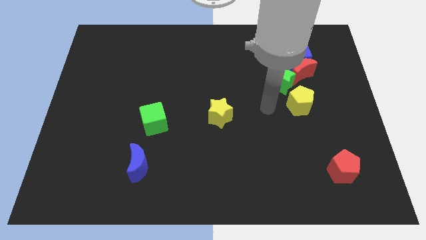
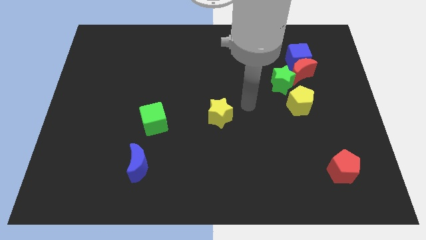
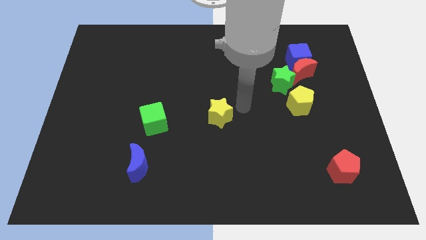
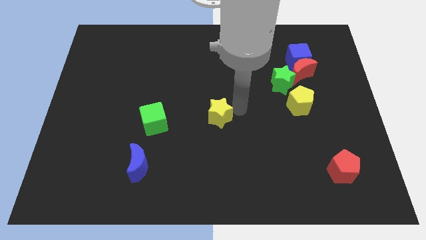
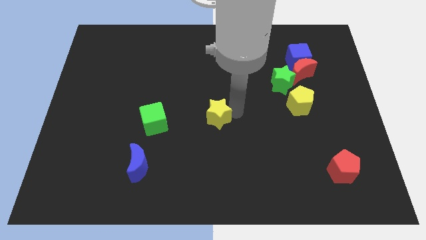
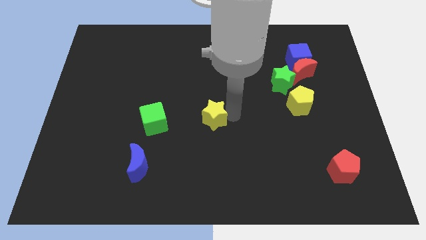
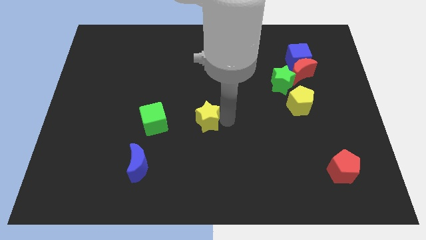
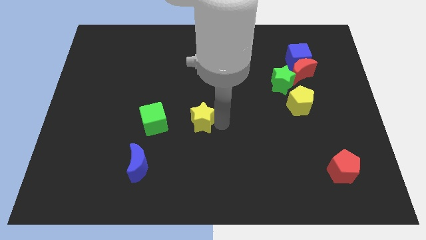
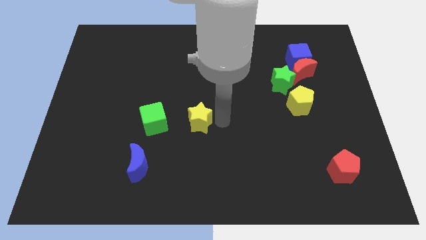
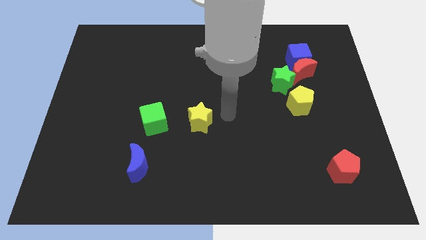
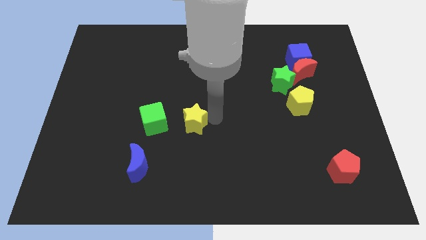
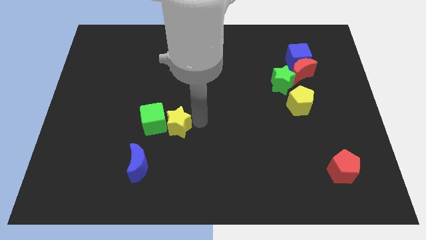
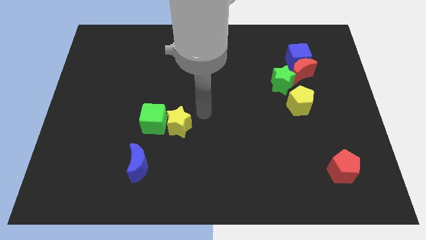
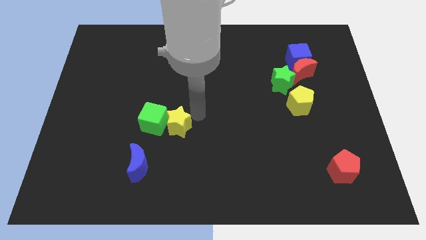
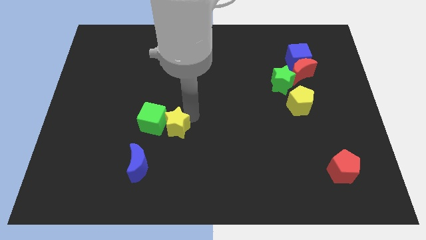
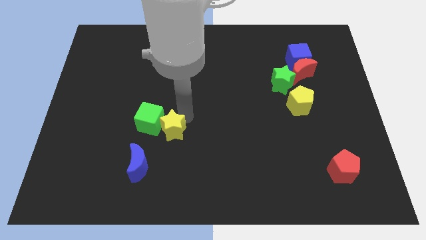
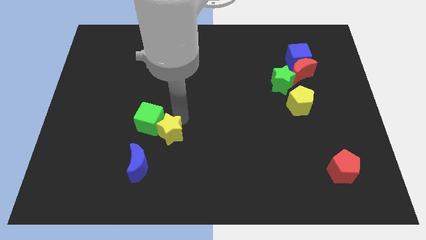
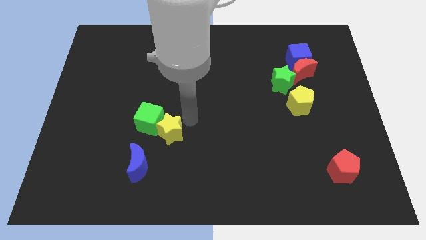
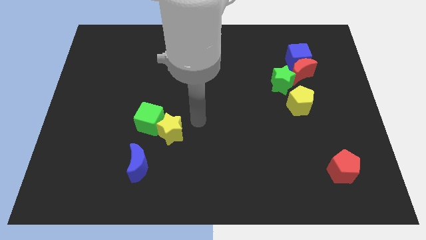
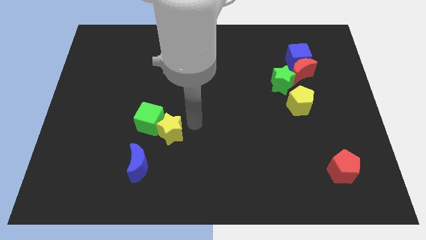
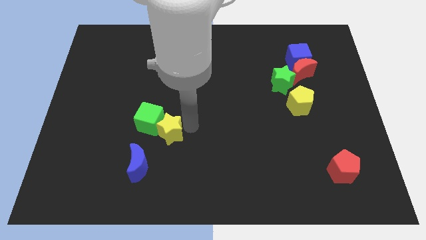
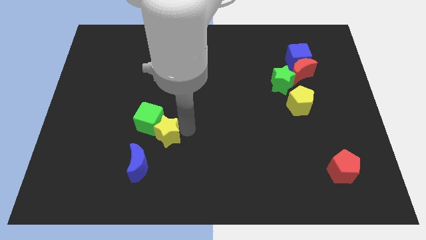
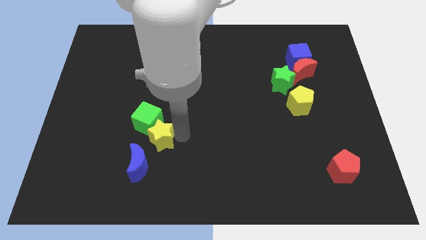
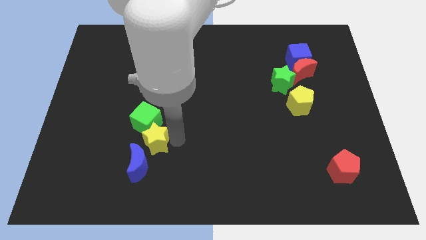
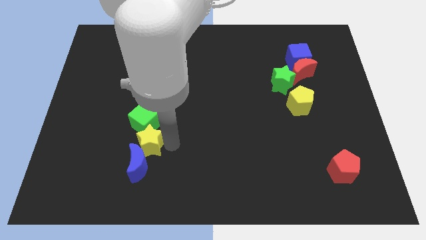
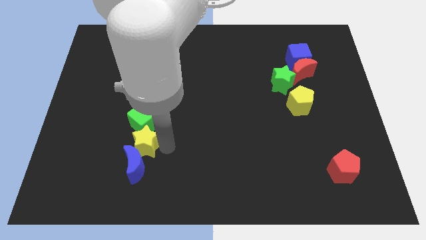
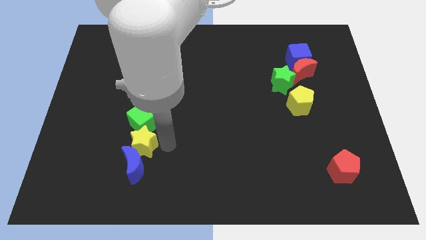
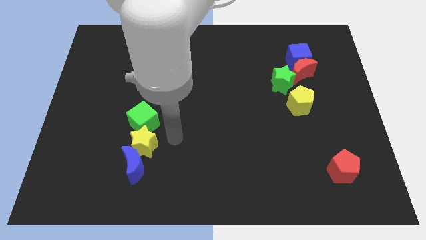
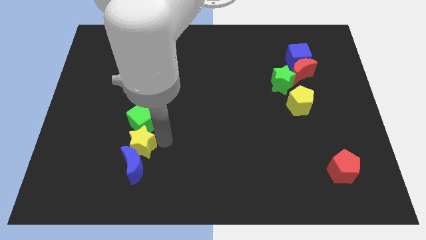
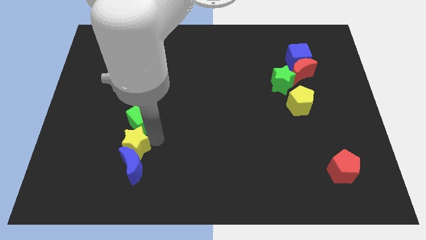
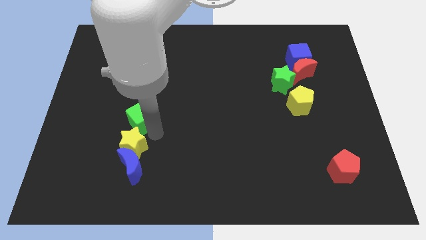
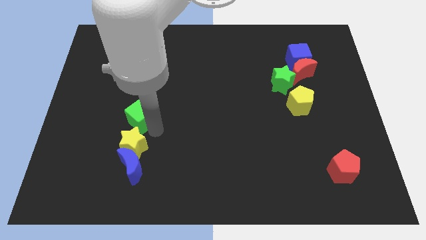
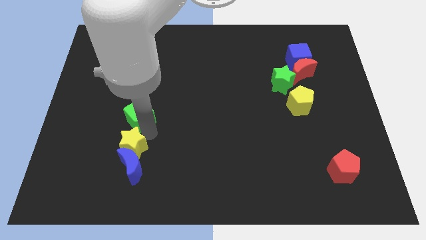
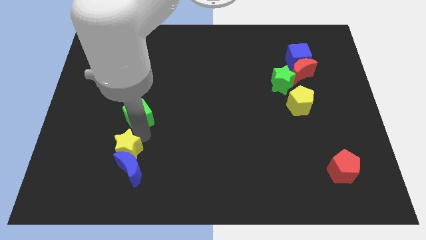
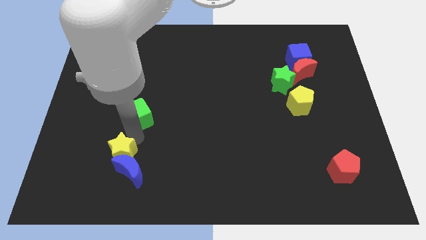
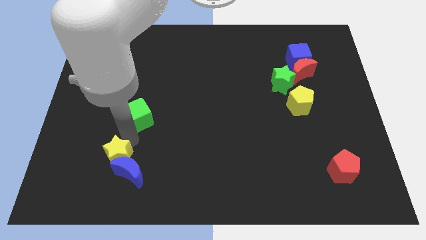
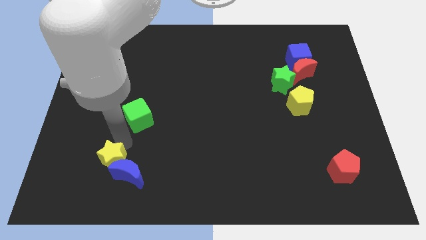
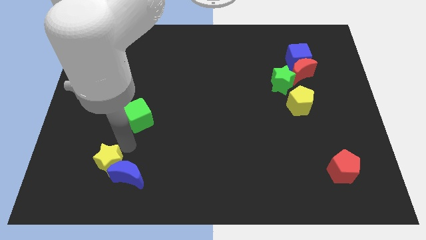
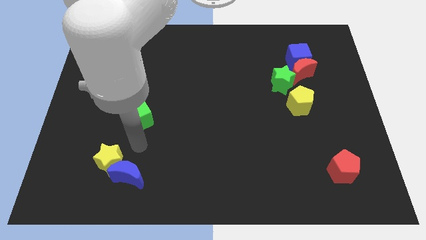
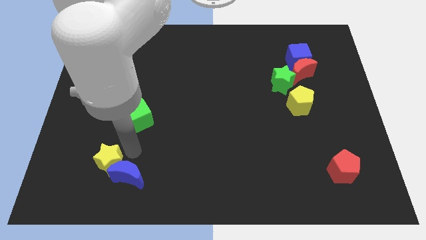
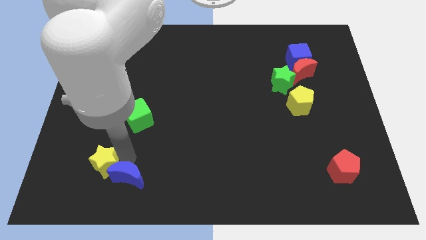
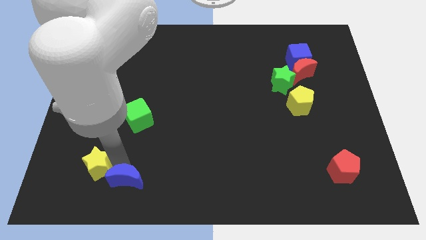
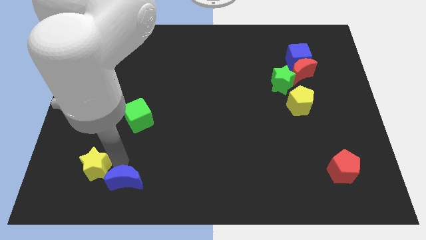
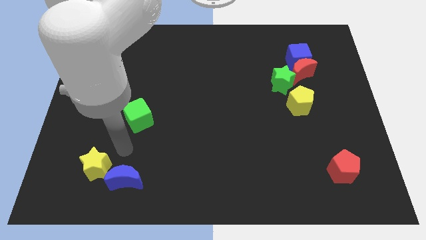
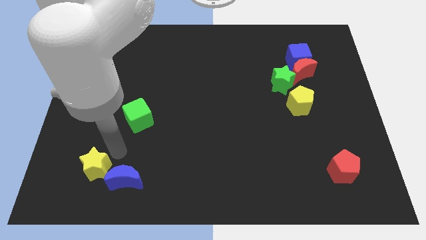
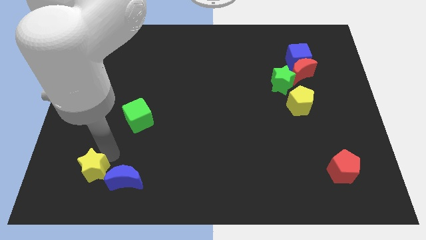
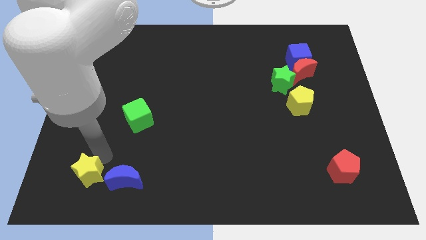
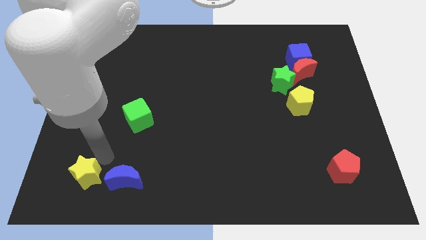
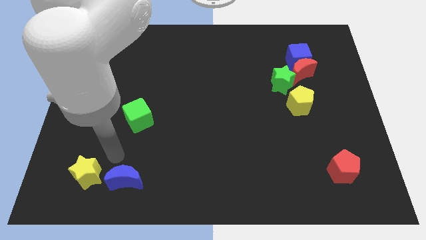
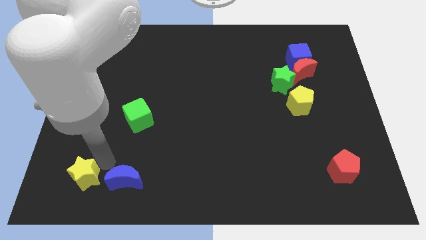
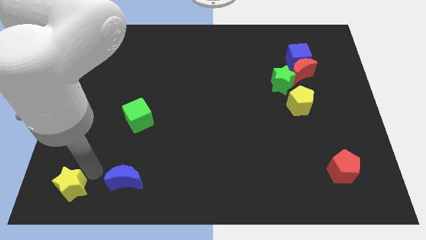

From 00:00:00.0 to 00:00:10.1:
move the yellow star to the bottom left corner

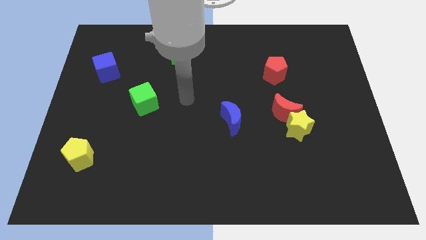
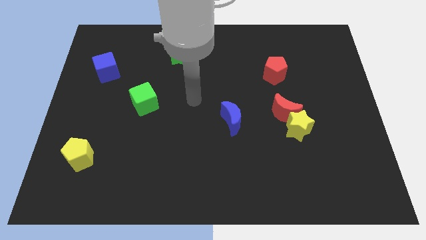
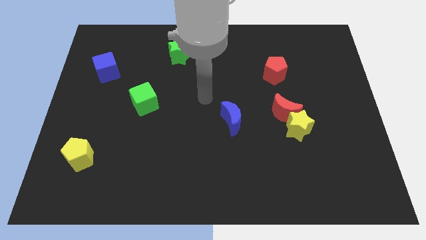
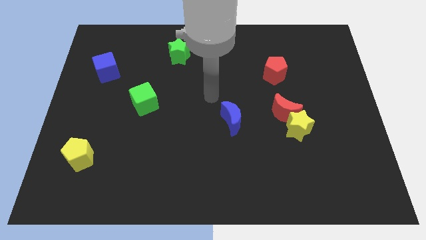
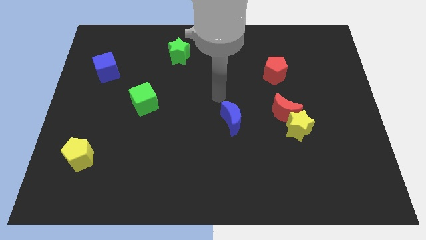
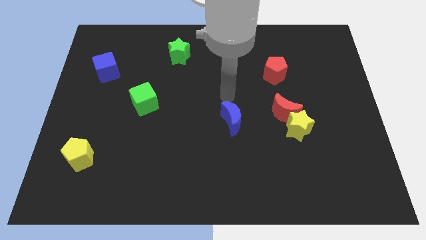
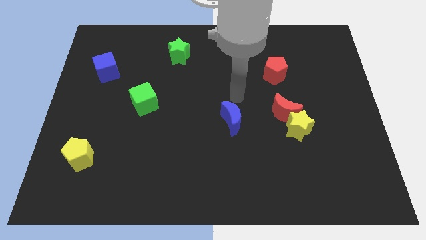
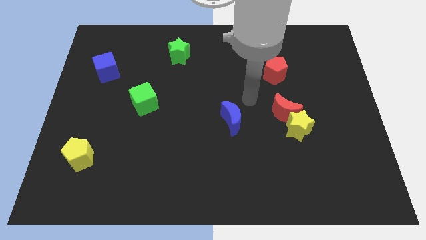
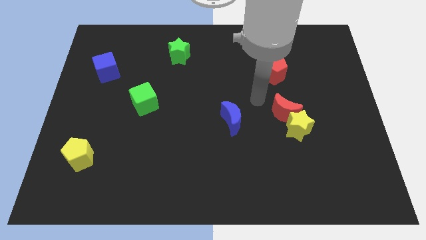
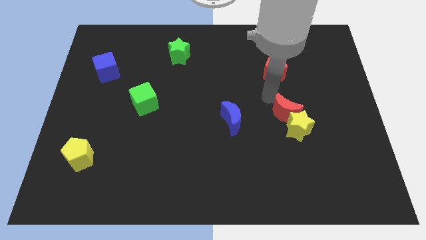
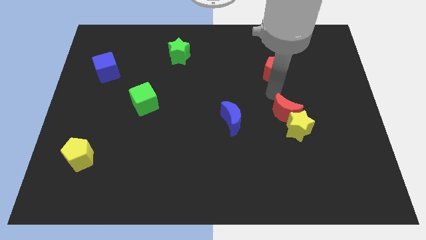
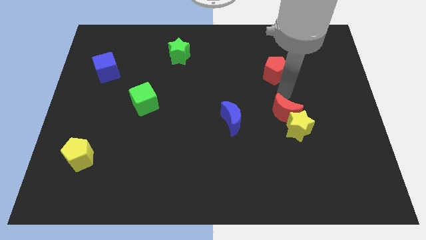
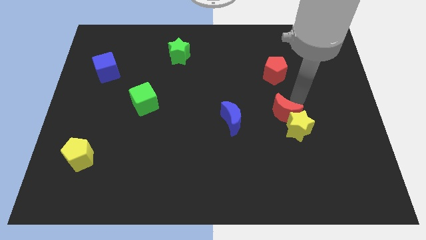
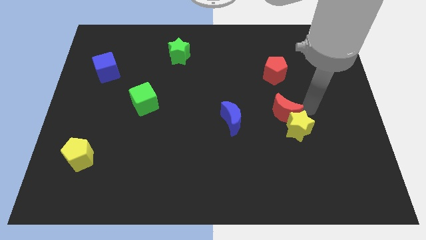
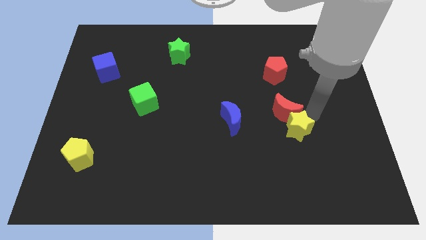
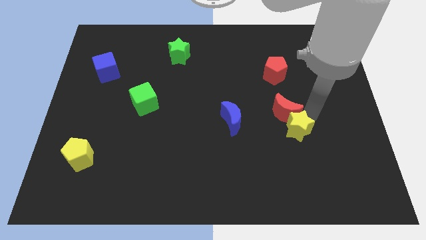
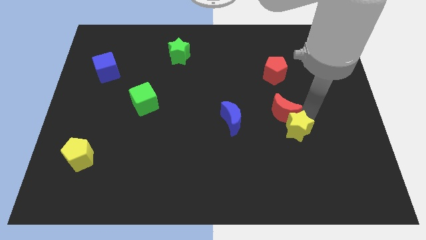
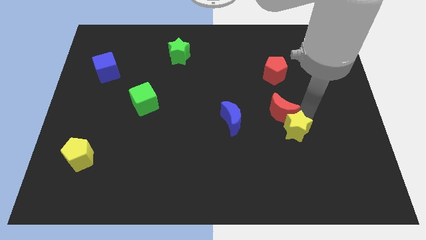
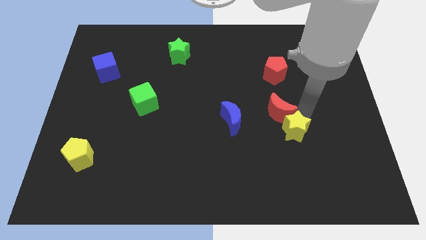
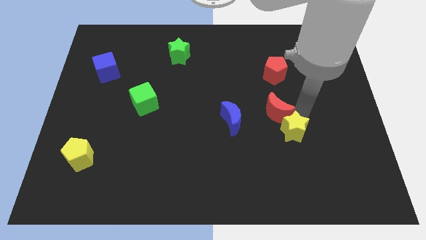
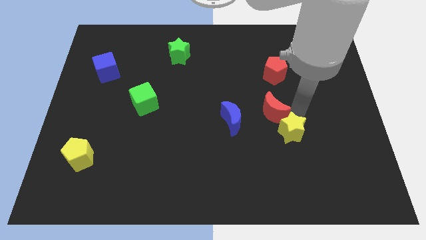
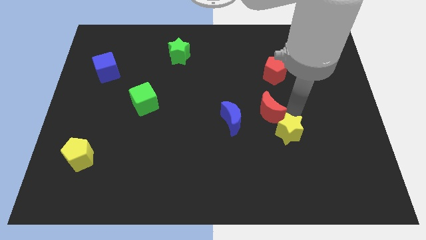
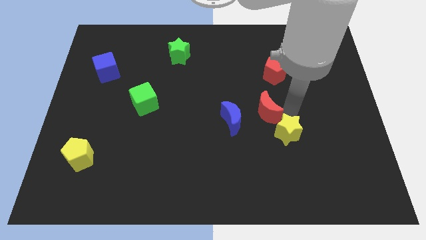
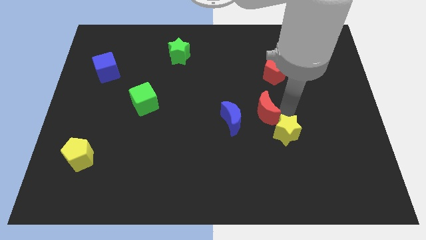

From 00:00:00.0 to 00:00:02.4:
move the red moon to the center of the board
